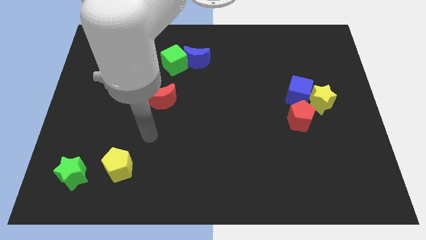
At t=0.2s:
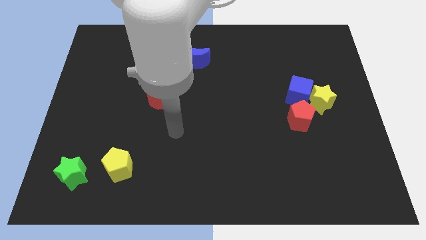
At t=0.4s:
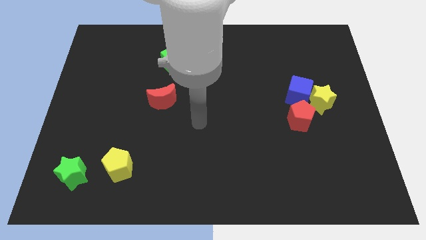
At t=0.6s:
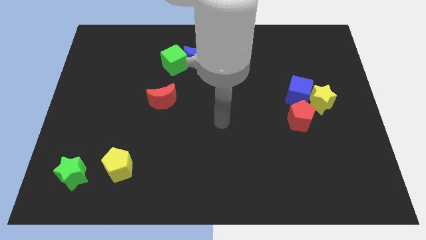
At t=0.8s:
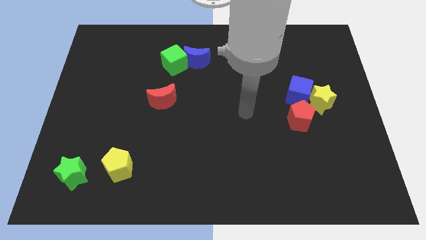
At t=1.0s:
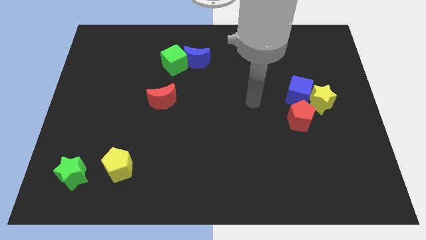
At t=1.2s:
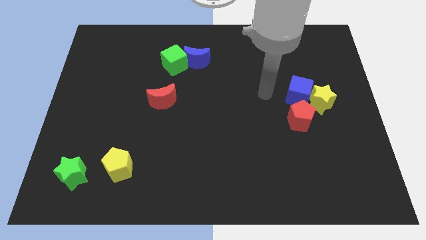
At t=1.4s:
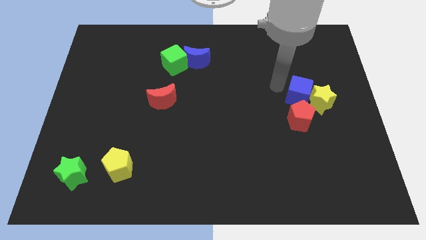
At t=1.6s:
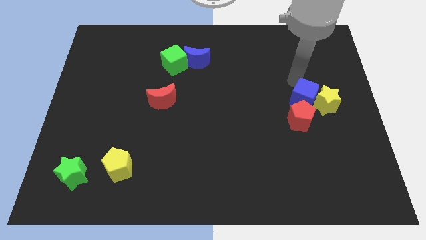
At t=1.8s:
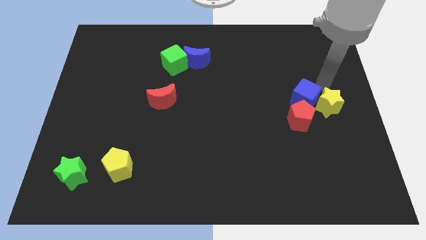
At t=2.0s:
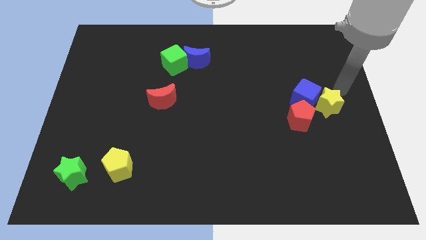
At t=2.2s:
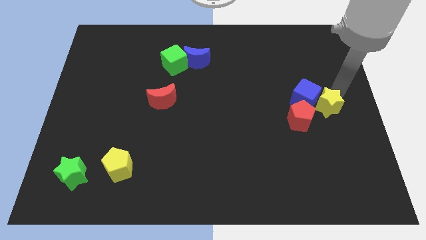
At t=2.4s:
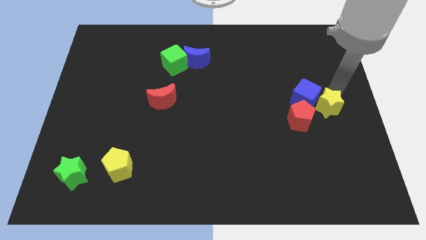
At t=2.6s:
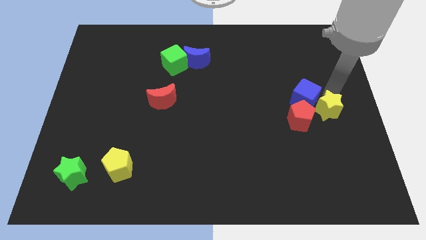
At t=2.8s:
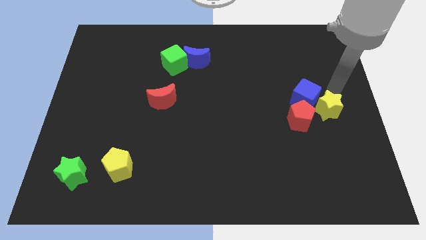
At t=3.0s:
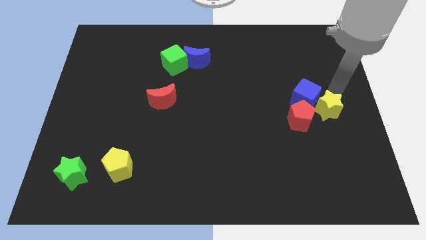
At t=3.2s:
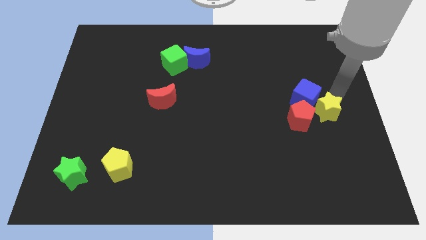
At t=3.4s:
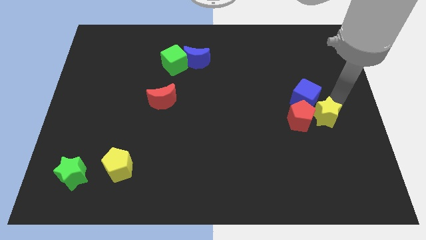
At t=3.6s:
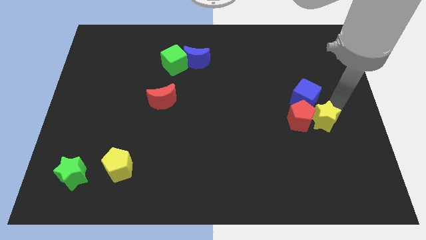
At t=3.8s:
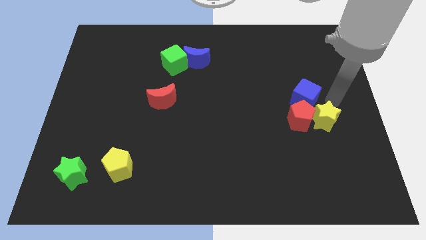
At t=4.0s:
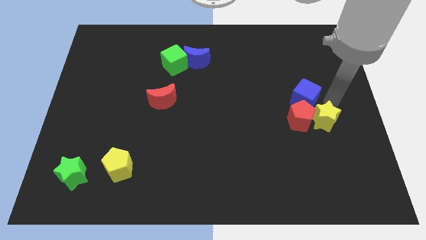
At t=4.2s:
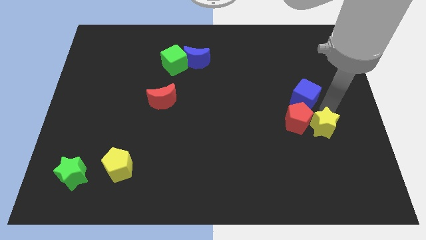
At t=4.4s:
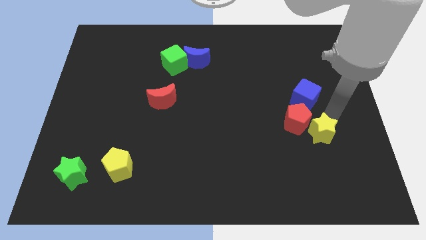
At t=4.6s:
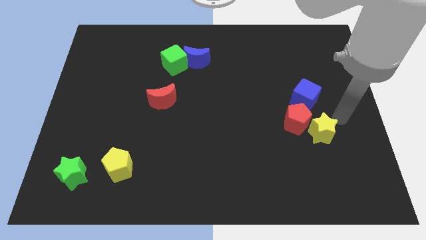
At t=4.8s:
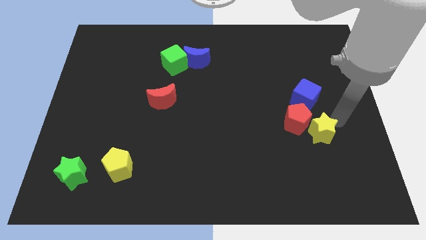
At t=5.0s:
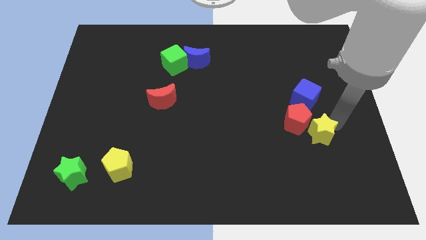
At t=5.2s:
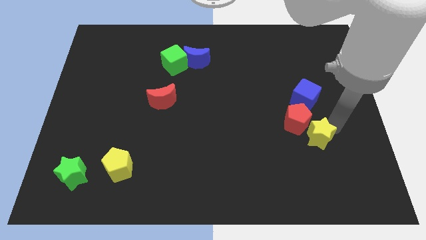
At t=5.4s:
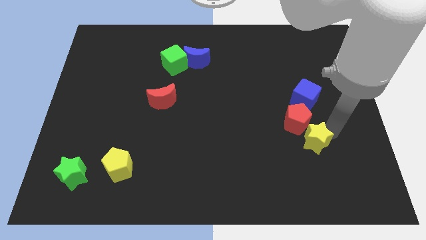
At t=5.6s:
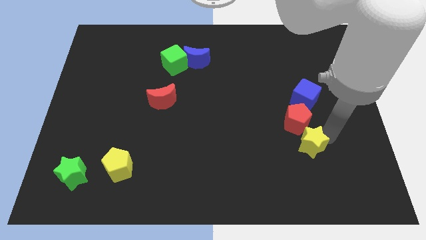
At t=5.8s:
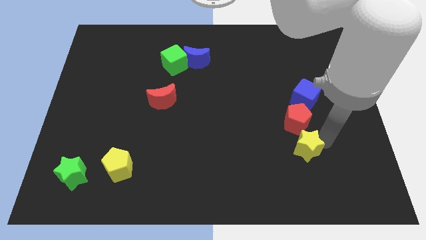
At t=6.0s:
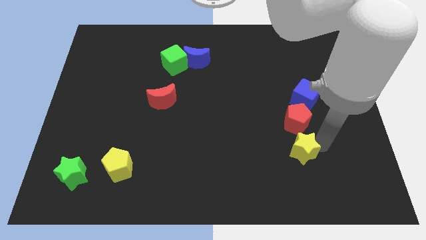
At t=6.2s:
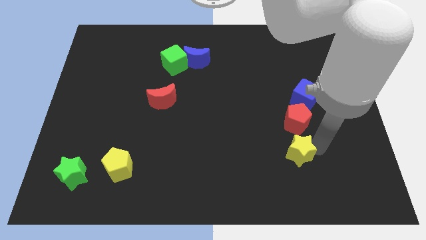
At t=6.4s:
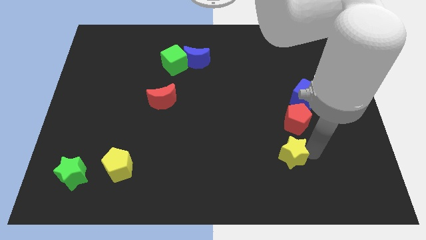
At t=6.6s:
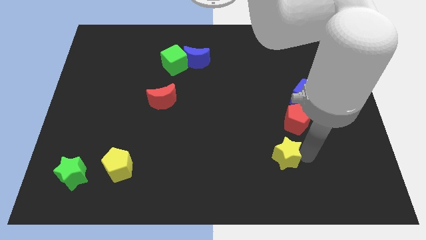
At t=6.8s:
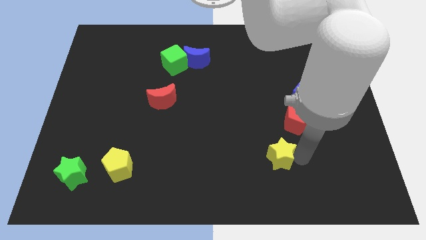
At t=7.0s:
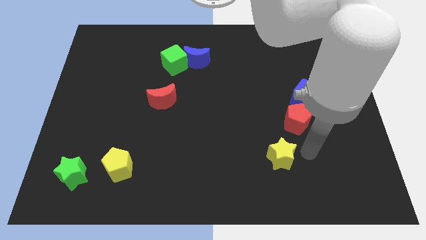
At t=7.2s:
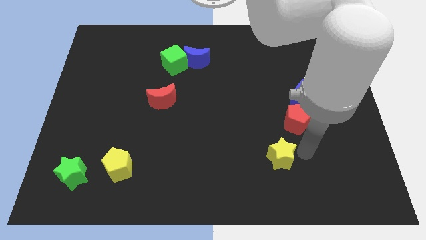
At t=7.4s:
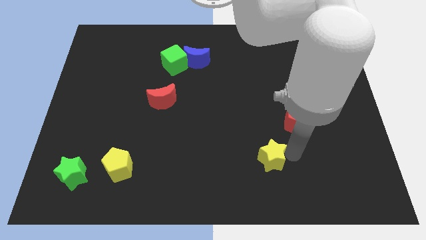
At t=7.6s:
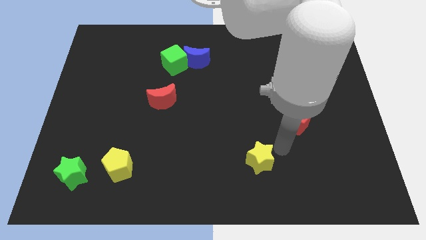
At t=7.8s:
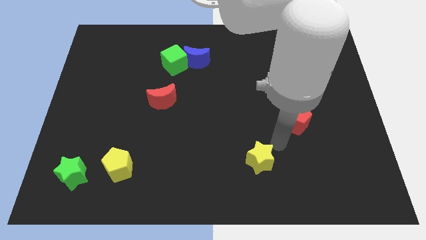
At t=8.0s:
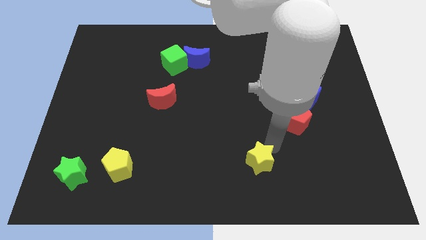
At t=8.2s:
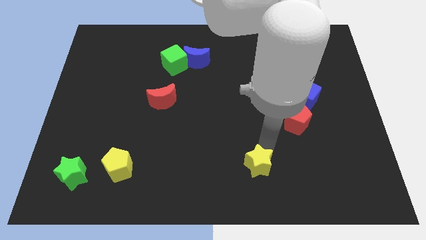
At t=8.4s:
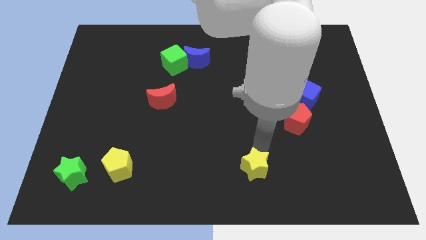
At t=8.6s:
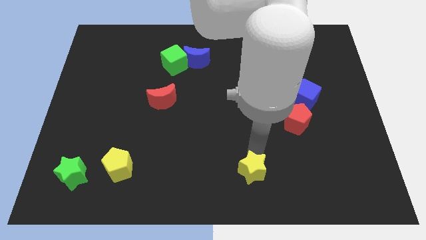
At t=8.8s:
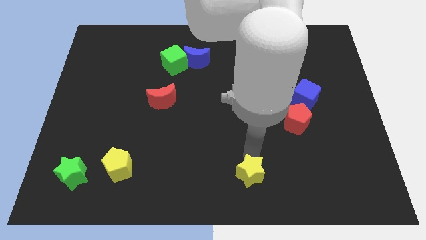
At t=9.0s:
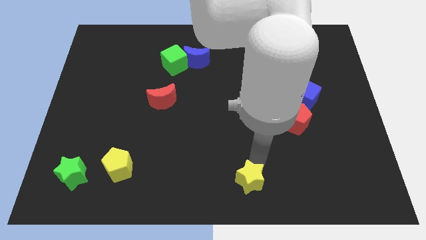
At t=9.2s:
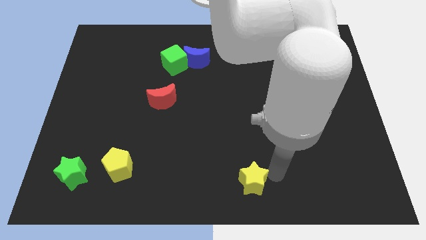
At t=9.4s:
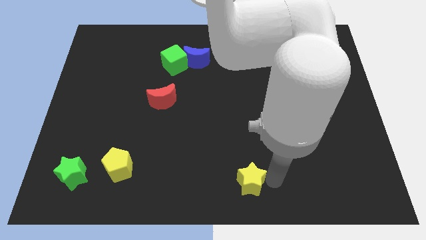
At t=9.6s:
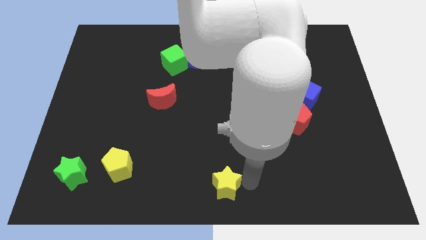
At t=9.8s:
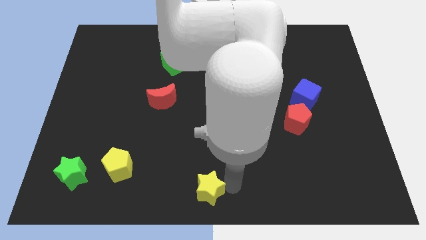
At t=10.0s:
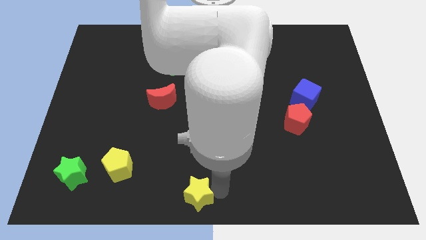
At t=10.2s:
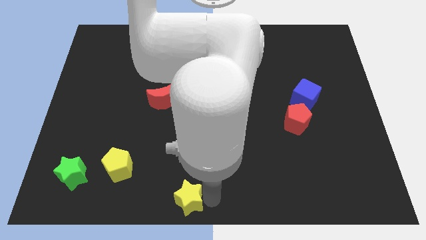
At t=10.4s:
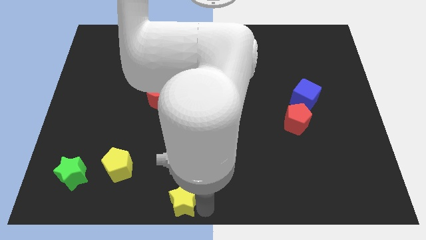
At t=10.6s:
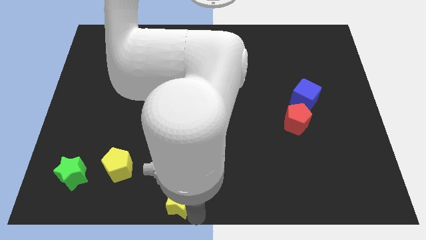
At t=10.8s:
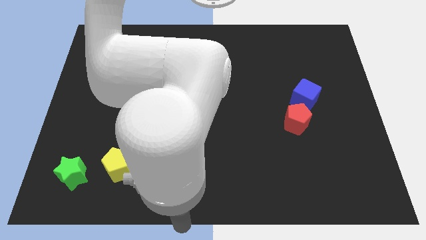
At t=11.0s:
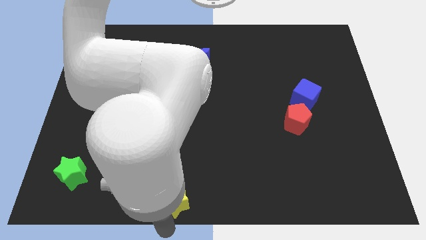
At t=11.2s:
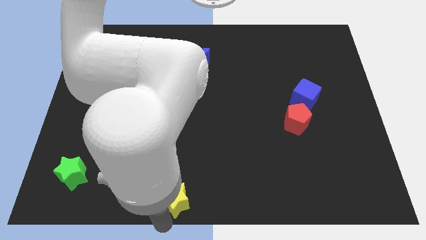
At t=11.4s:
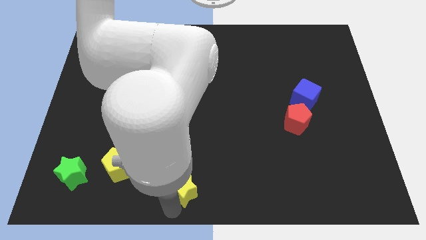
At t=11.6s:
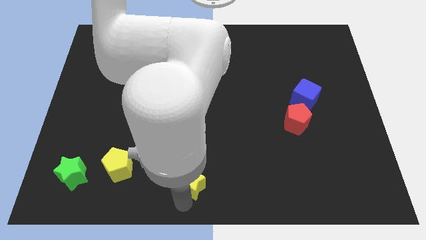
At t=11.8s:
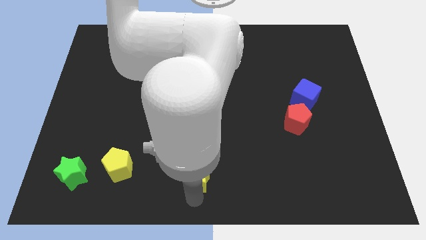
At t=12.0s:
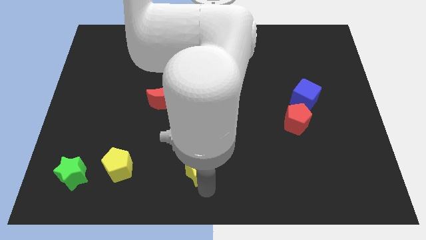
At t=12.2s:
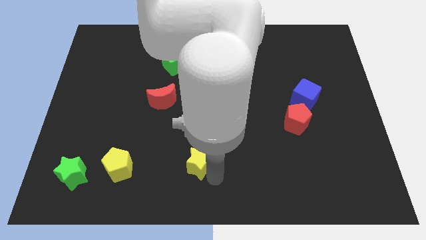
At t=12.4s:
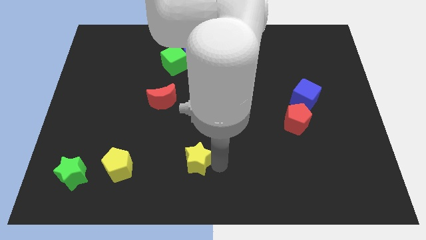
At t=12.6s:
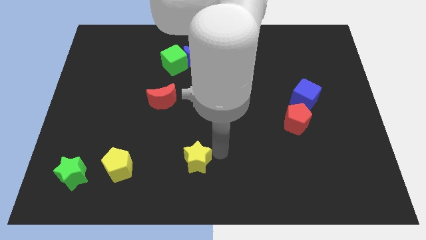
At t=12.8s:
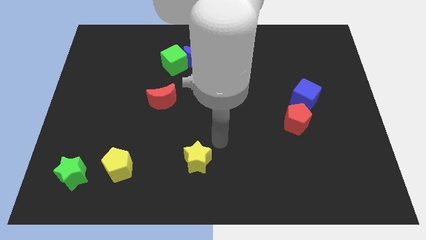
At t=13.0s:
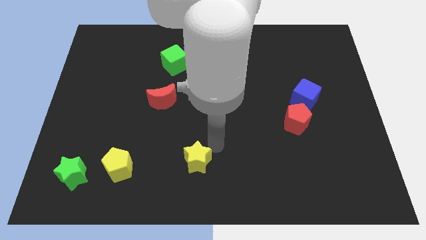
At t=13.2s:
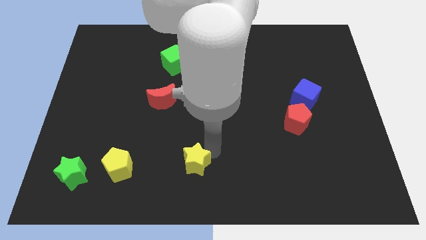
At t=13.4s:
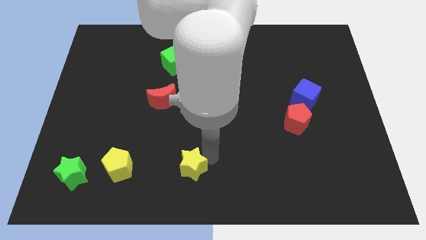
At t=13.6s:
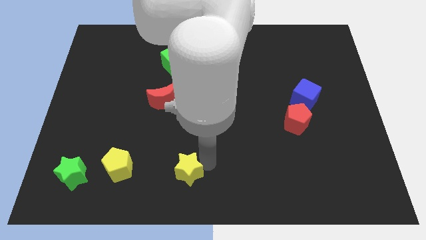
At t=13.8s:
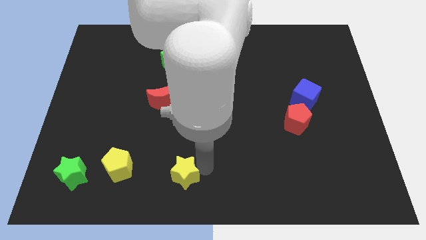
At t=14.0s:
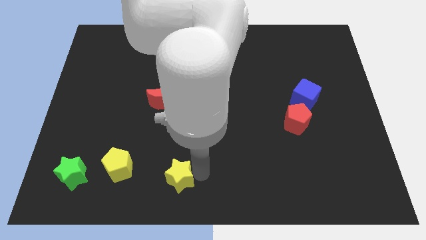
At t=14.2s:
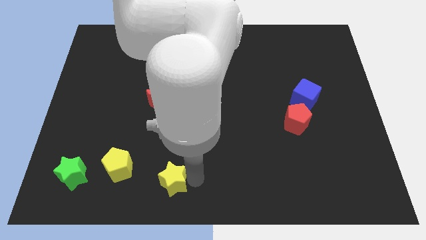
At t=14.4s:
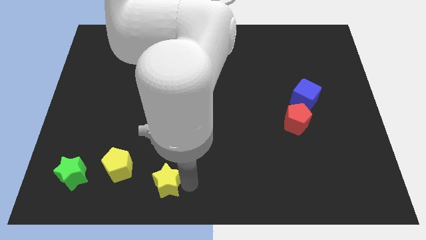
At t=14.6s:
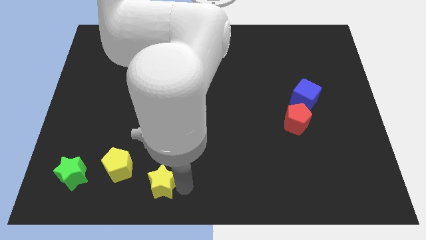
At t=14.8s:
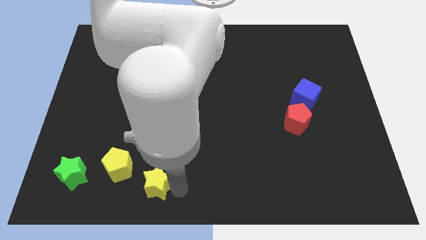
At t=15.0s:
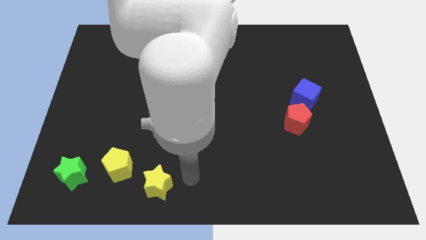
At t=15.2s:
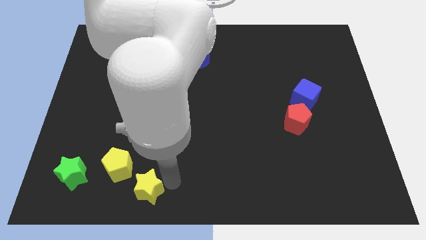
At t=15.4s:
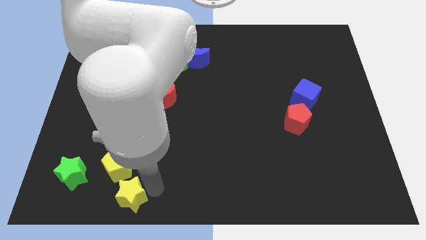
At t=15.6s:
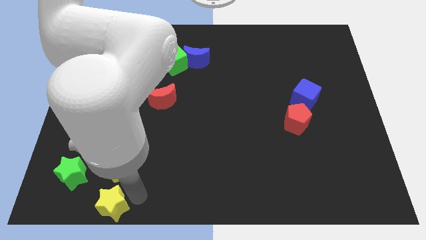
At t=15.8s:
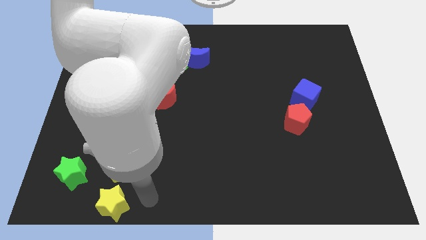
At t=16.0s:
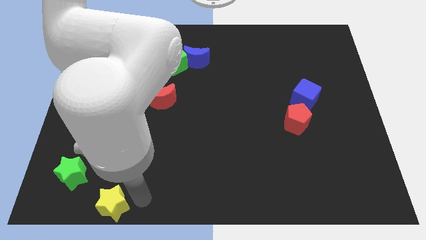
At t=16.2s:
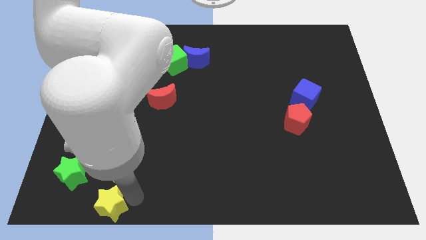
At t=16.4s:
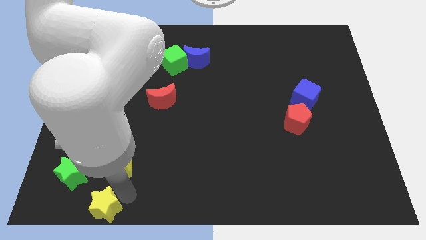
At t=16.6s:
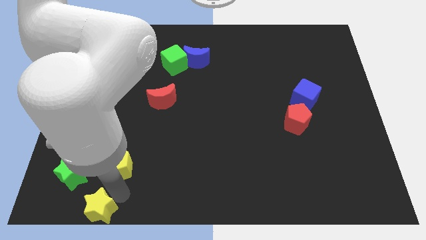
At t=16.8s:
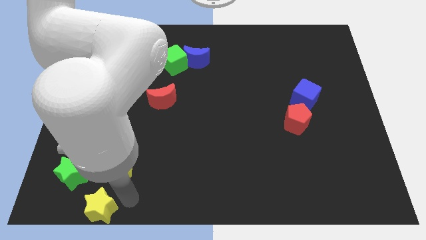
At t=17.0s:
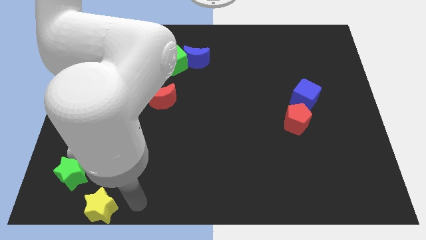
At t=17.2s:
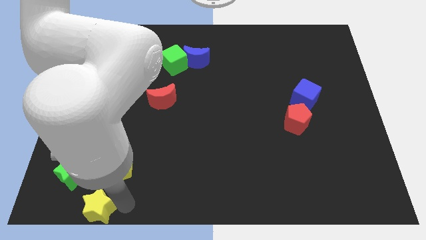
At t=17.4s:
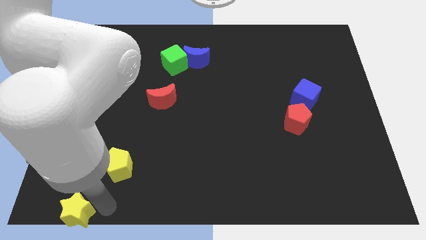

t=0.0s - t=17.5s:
move the yellow star to the bottom left of the board
